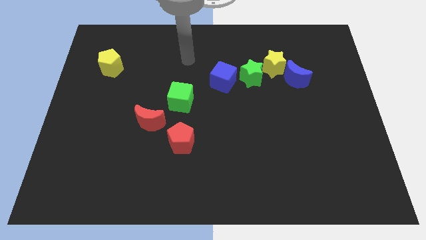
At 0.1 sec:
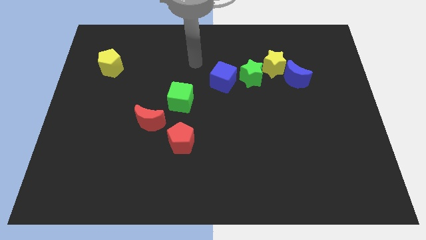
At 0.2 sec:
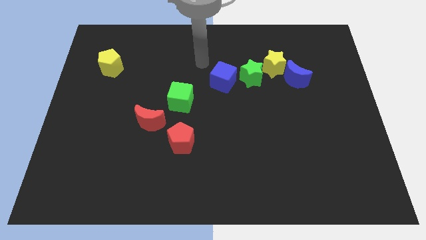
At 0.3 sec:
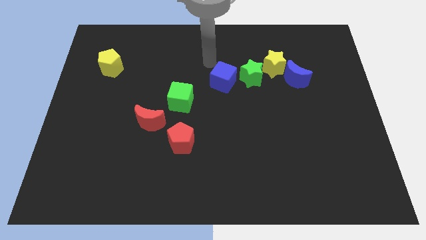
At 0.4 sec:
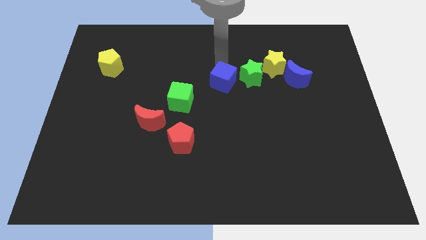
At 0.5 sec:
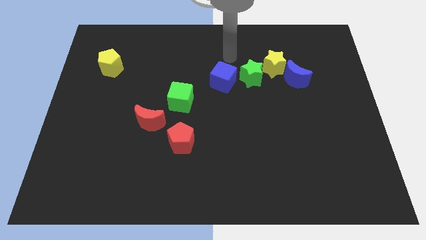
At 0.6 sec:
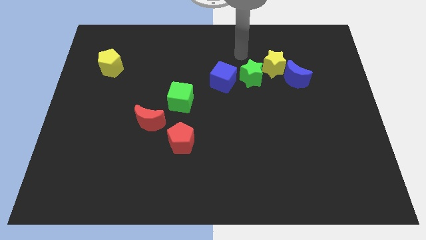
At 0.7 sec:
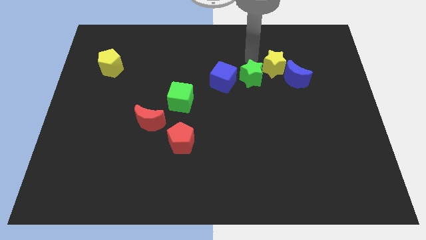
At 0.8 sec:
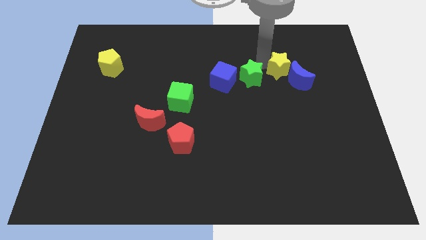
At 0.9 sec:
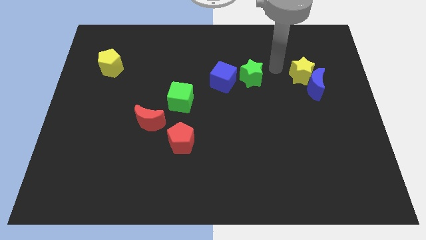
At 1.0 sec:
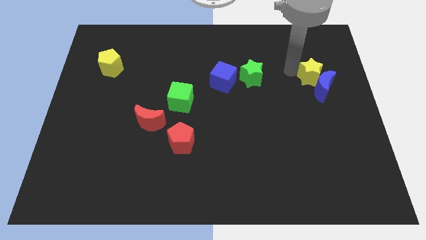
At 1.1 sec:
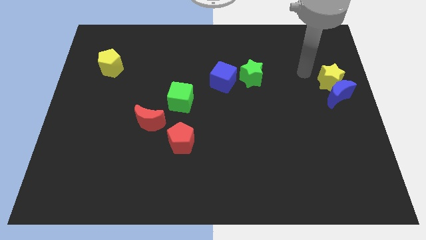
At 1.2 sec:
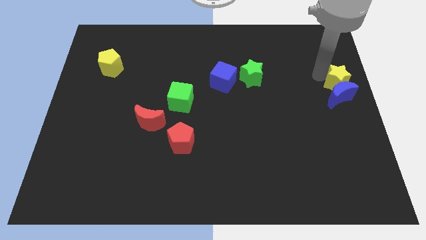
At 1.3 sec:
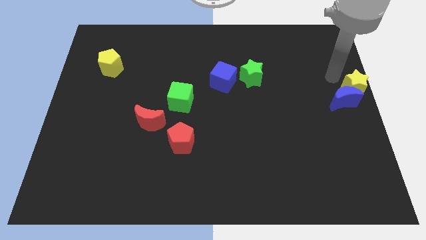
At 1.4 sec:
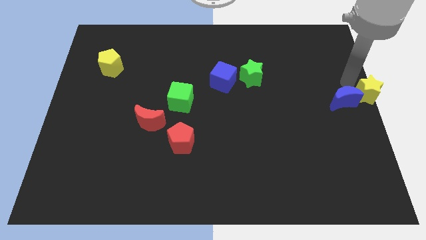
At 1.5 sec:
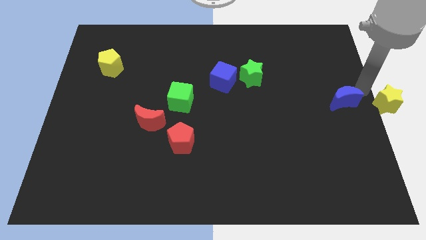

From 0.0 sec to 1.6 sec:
separate the blue moon from the yellow star

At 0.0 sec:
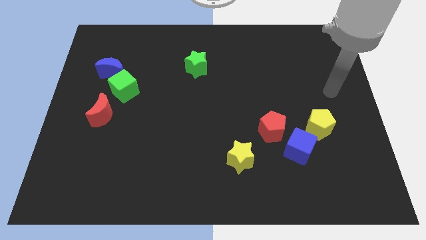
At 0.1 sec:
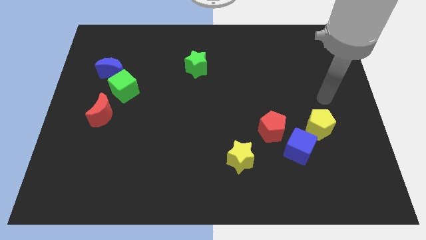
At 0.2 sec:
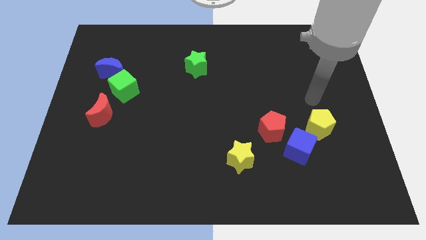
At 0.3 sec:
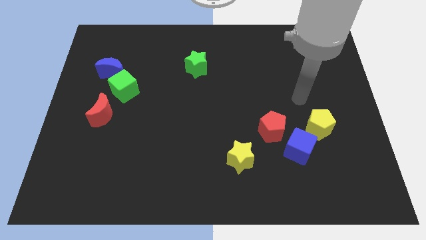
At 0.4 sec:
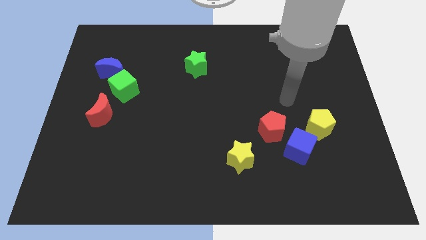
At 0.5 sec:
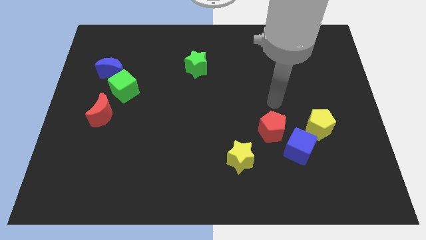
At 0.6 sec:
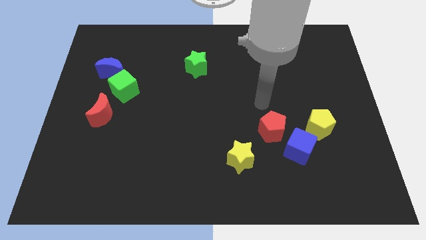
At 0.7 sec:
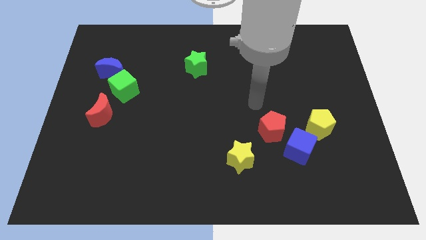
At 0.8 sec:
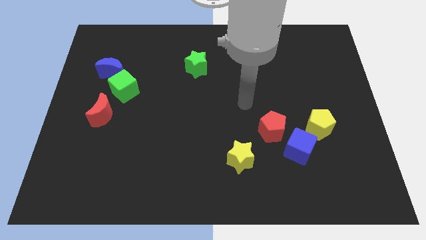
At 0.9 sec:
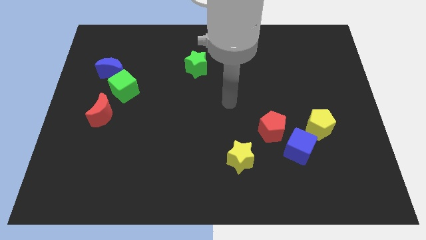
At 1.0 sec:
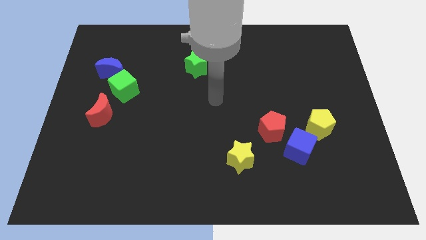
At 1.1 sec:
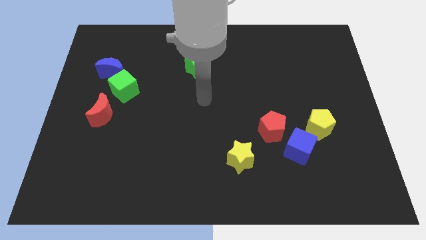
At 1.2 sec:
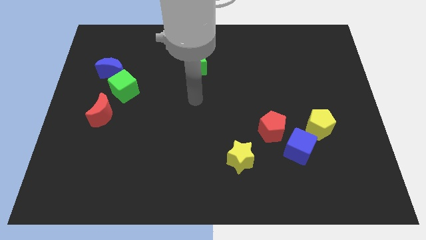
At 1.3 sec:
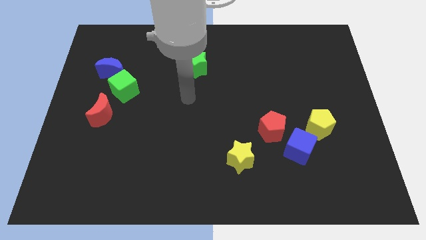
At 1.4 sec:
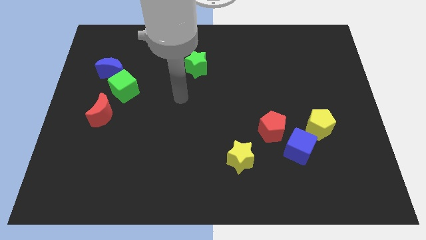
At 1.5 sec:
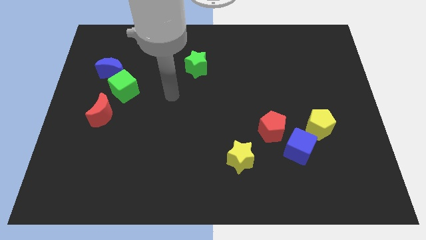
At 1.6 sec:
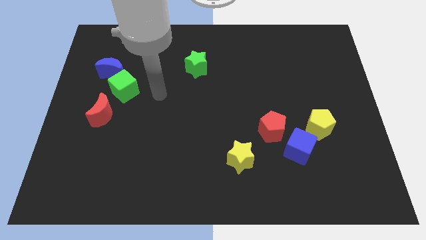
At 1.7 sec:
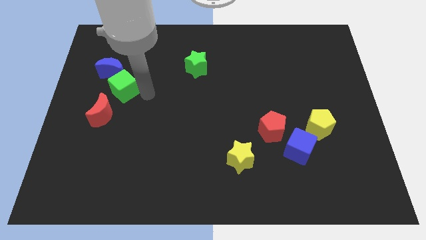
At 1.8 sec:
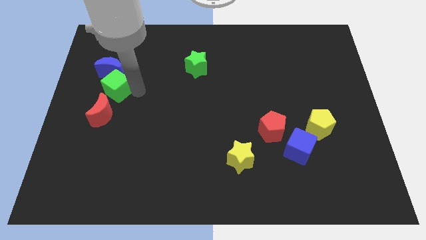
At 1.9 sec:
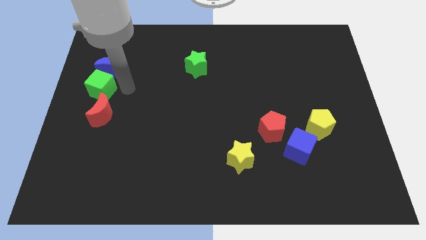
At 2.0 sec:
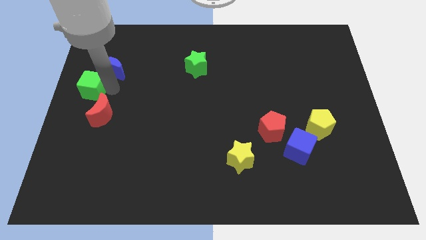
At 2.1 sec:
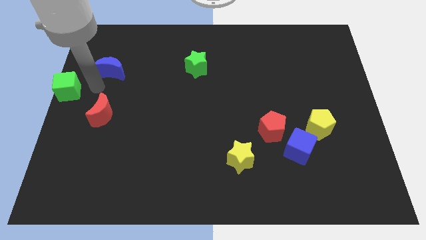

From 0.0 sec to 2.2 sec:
pull the blue moon apart from the green cube

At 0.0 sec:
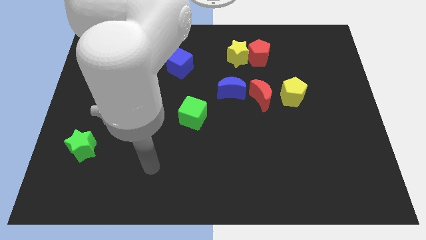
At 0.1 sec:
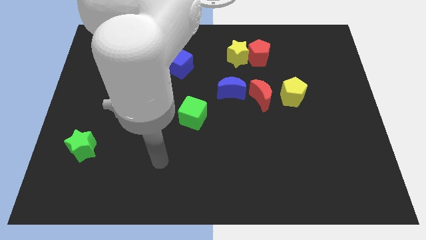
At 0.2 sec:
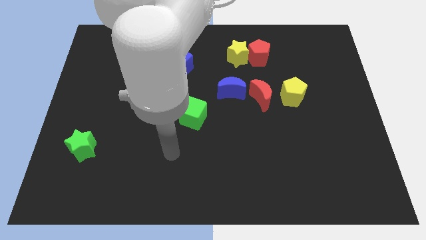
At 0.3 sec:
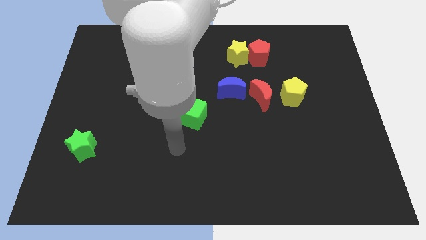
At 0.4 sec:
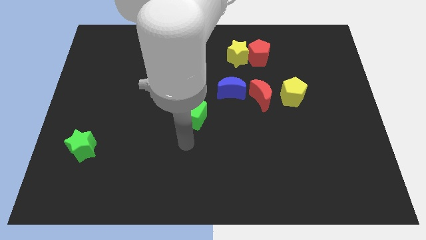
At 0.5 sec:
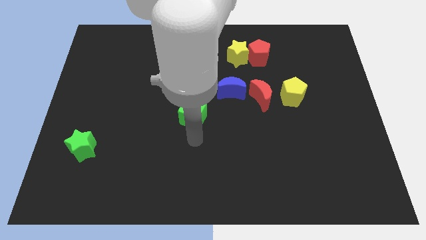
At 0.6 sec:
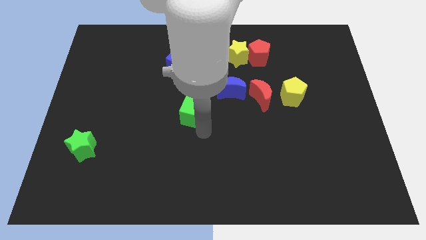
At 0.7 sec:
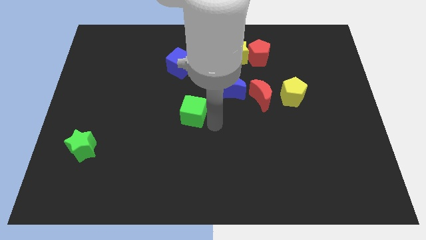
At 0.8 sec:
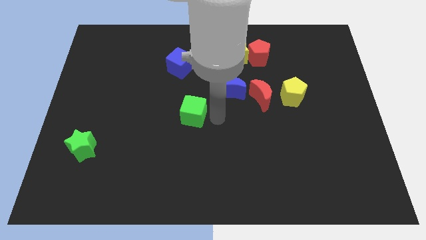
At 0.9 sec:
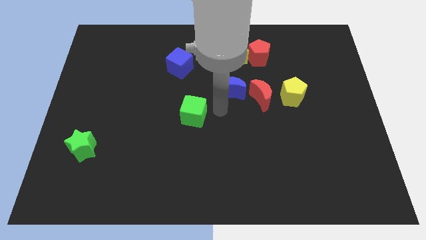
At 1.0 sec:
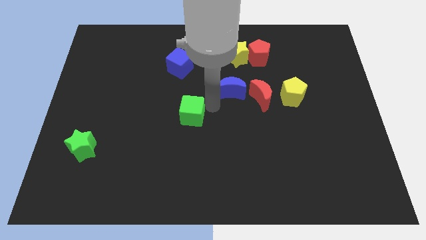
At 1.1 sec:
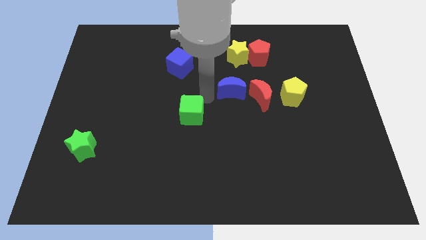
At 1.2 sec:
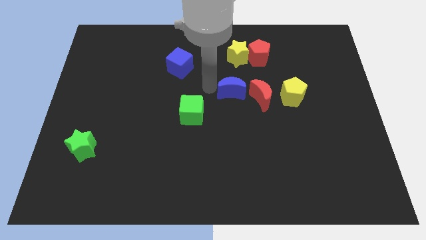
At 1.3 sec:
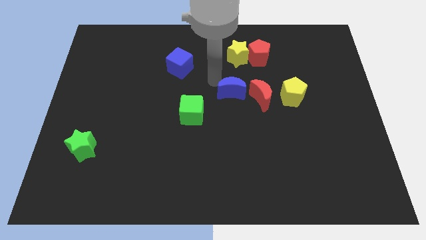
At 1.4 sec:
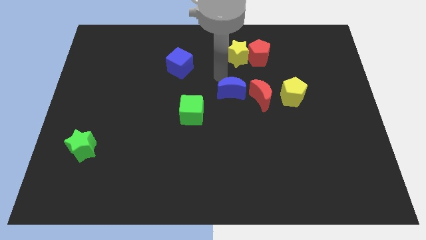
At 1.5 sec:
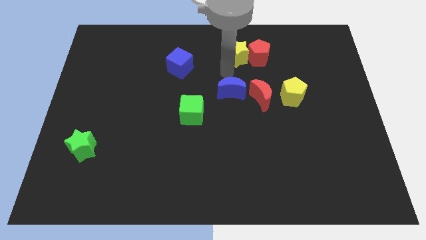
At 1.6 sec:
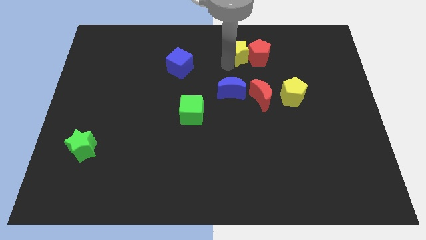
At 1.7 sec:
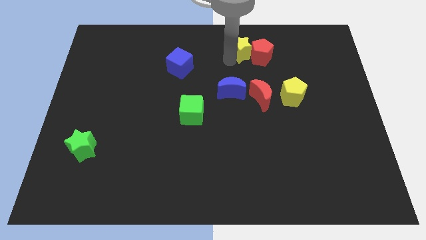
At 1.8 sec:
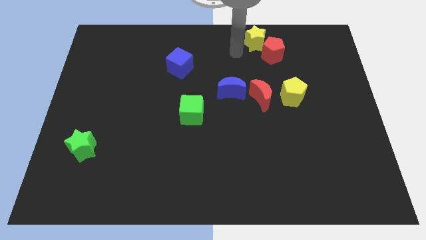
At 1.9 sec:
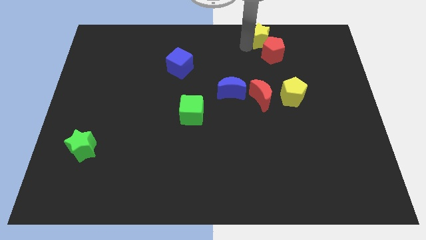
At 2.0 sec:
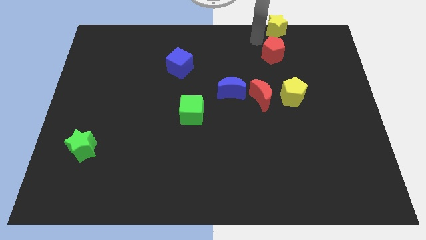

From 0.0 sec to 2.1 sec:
separate the red pentagon from the yellow star

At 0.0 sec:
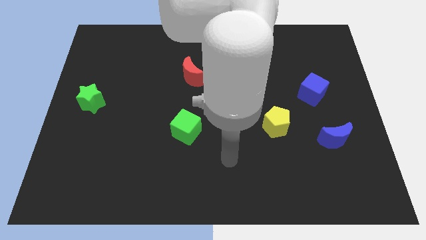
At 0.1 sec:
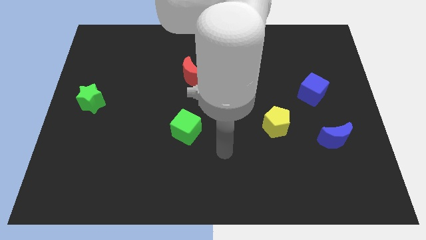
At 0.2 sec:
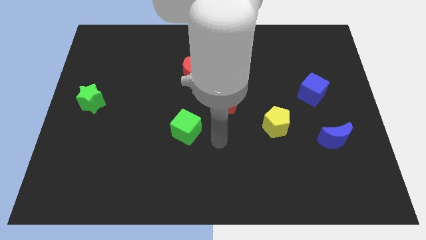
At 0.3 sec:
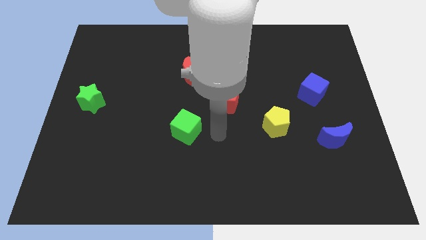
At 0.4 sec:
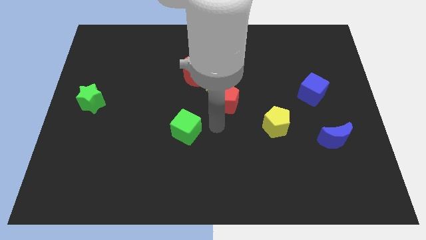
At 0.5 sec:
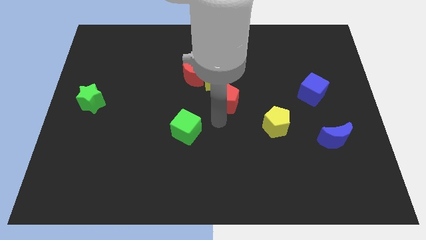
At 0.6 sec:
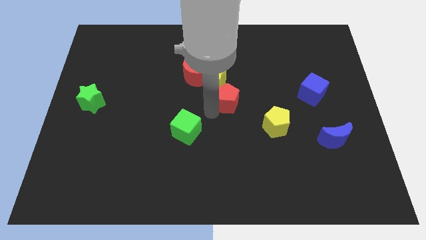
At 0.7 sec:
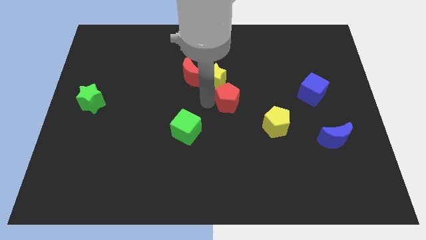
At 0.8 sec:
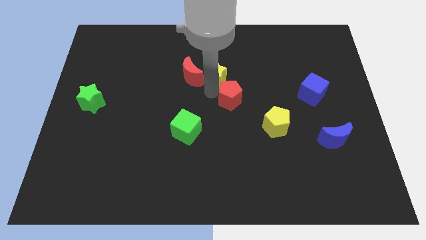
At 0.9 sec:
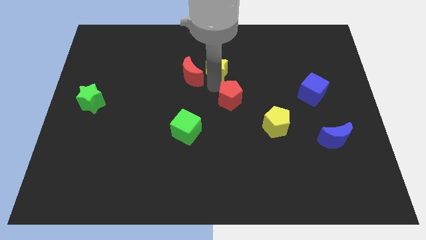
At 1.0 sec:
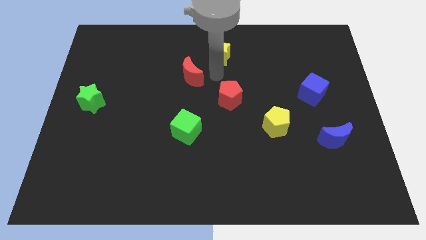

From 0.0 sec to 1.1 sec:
separate the red moon from the yellow star

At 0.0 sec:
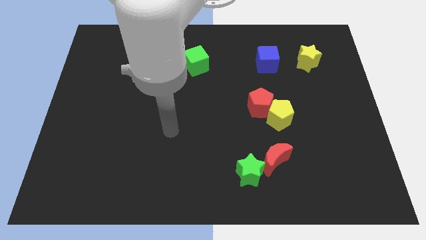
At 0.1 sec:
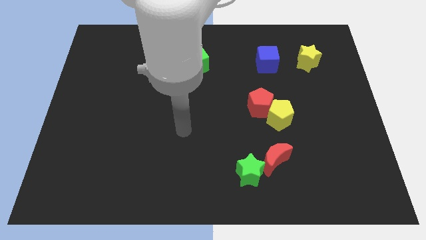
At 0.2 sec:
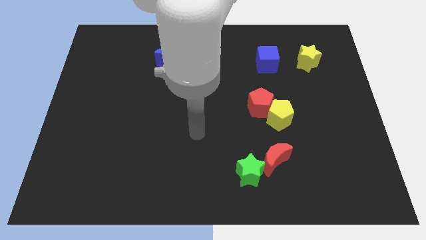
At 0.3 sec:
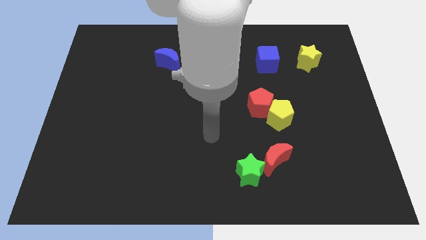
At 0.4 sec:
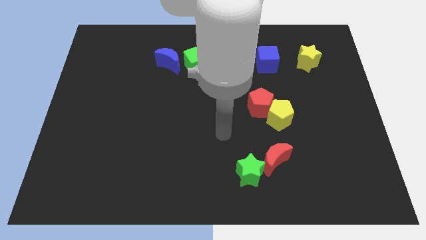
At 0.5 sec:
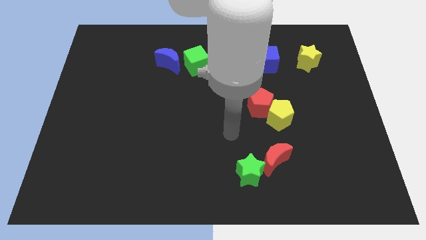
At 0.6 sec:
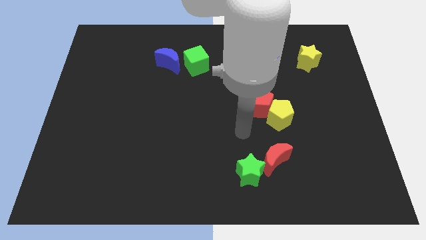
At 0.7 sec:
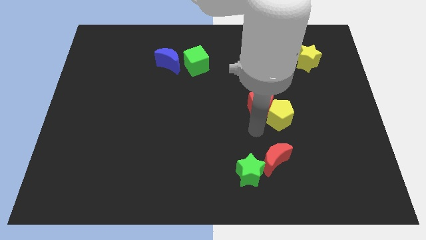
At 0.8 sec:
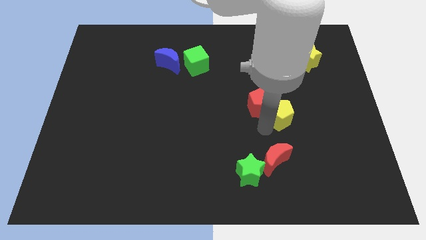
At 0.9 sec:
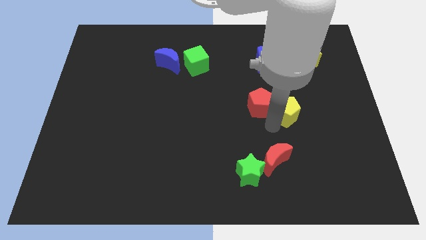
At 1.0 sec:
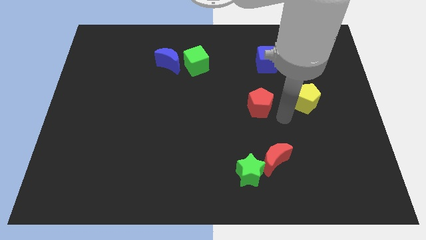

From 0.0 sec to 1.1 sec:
pull the red pentagon apart from the yellow pentagon

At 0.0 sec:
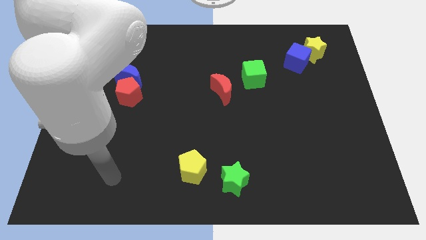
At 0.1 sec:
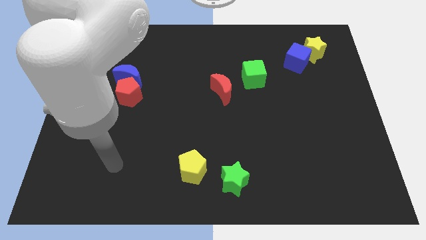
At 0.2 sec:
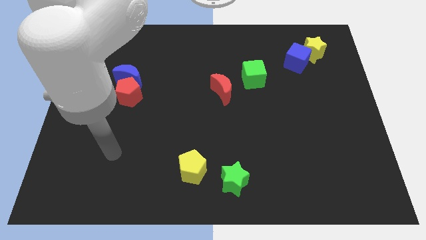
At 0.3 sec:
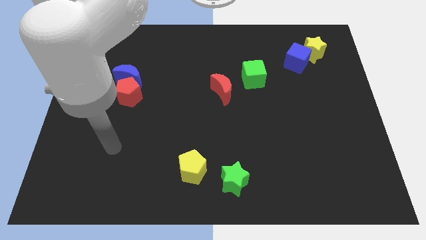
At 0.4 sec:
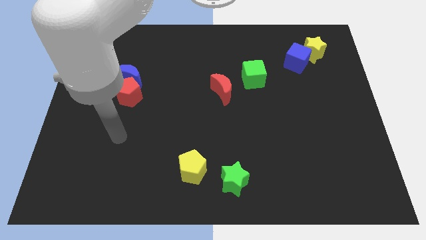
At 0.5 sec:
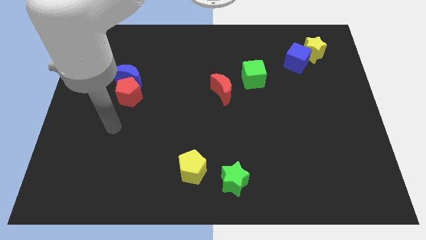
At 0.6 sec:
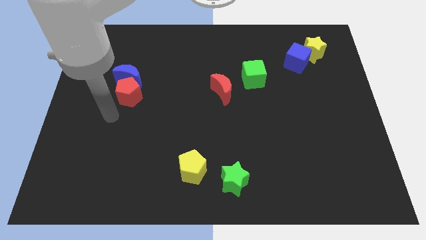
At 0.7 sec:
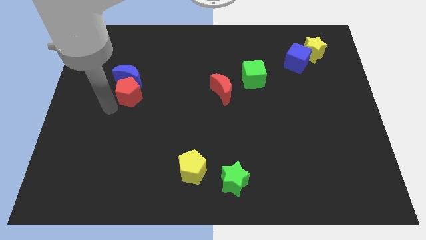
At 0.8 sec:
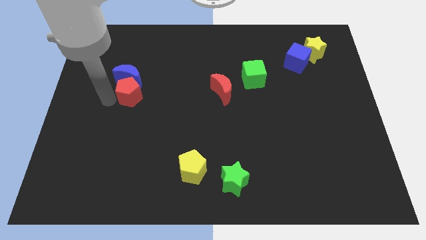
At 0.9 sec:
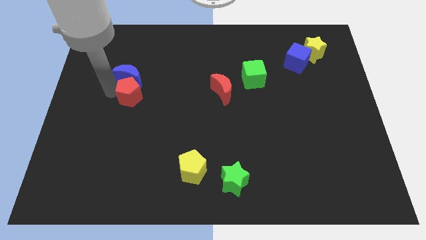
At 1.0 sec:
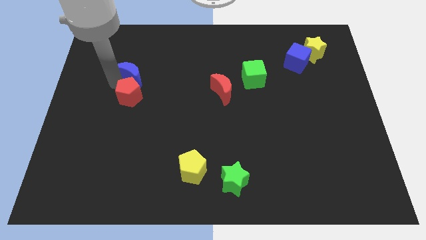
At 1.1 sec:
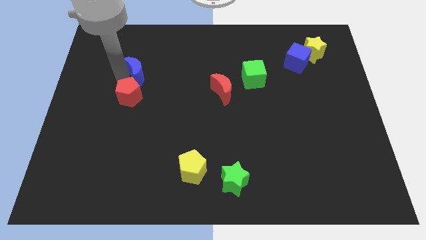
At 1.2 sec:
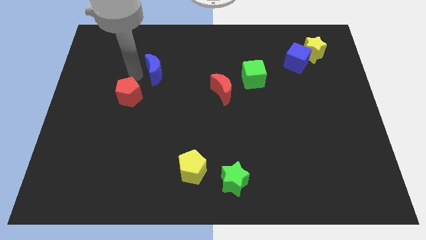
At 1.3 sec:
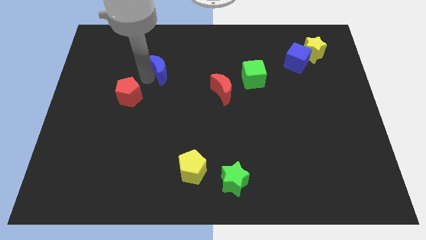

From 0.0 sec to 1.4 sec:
pull the red pentagon apart from the blue moon
